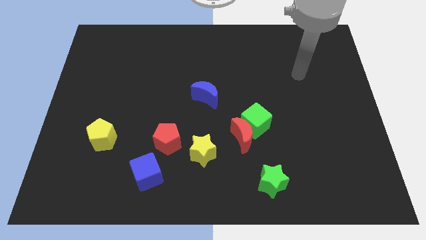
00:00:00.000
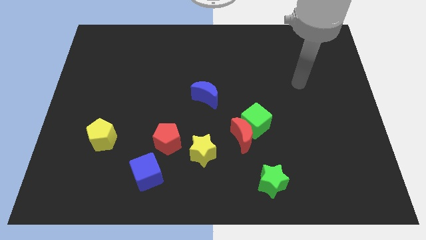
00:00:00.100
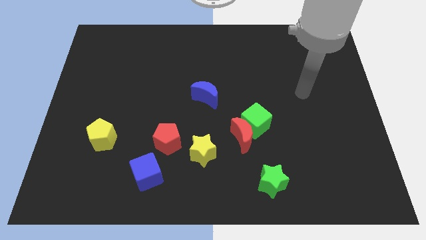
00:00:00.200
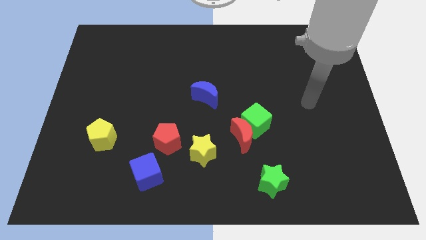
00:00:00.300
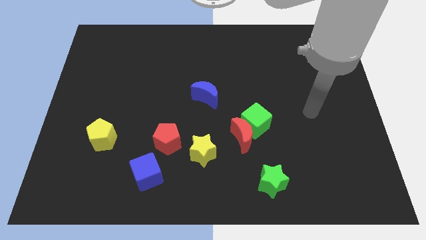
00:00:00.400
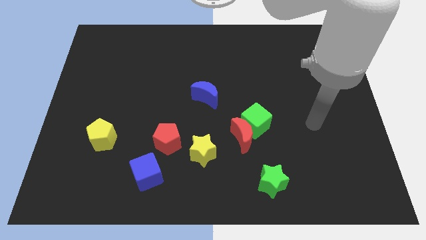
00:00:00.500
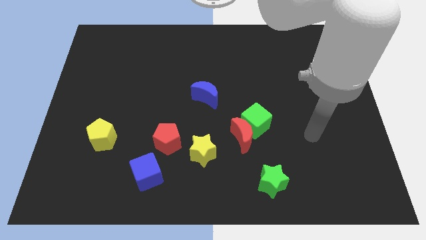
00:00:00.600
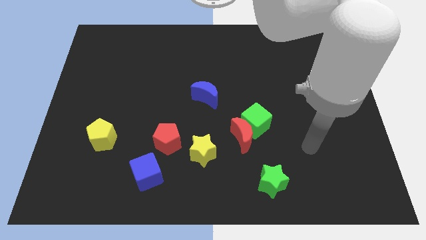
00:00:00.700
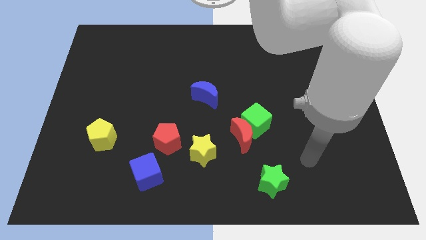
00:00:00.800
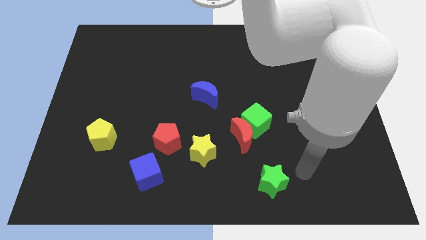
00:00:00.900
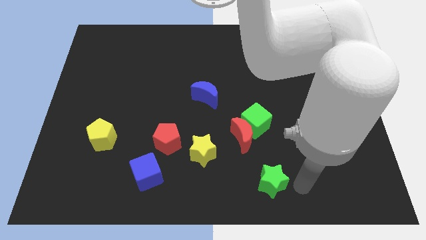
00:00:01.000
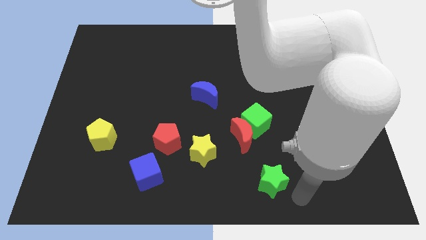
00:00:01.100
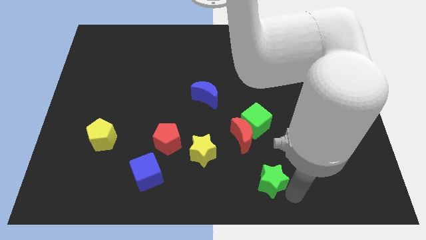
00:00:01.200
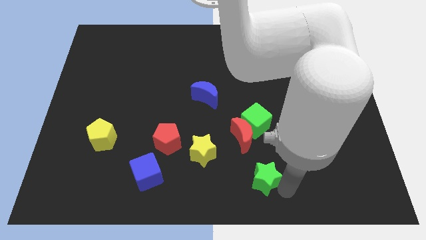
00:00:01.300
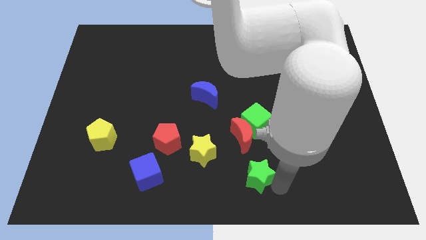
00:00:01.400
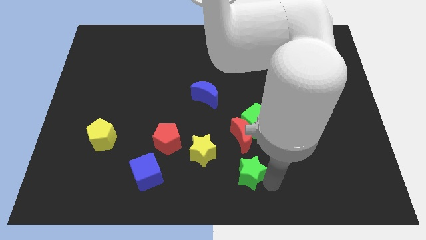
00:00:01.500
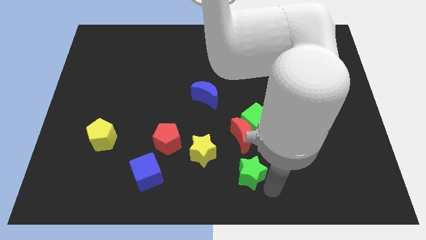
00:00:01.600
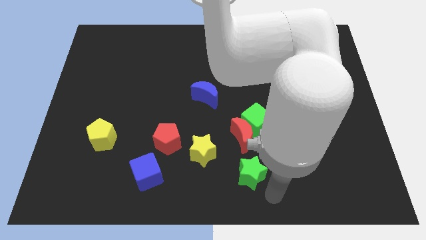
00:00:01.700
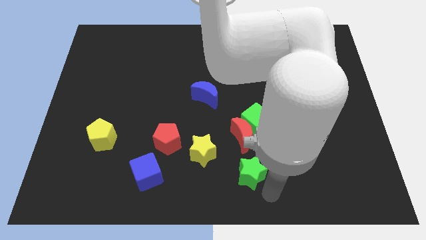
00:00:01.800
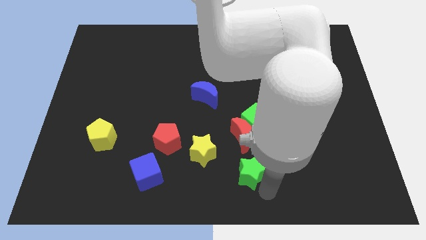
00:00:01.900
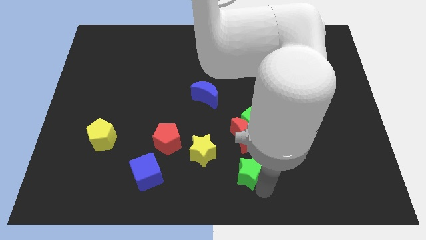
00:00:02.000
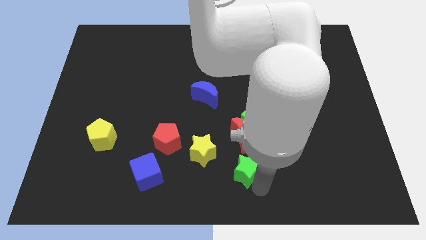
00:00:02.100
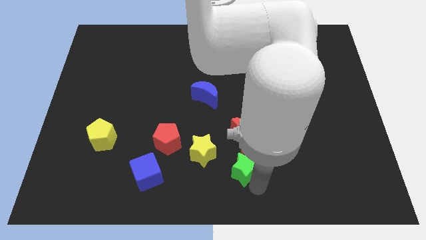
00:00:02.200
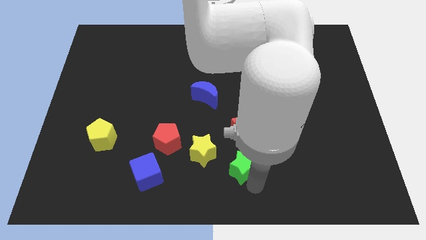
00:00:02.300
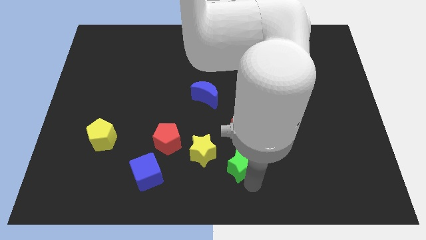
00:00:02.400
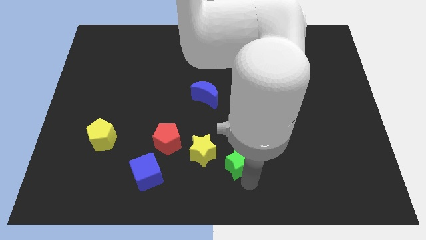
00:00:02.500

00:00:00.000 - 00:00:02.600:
slightly slide the green star upwards and left

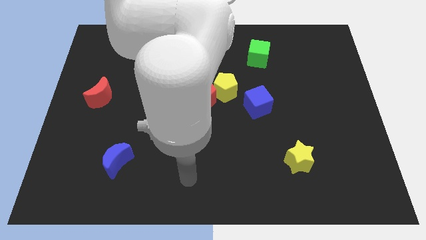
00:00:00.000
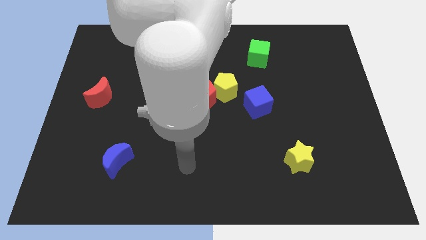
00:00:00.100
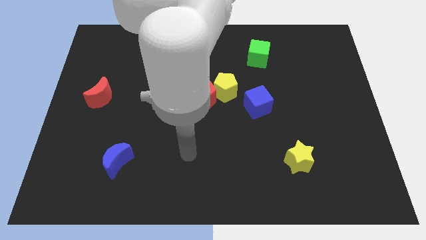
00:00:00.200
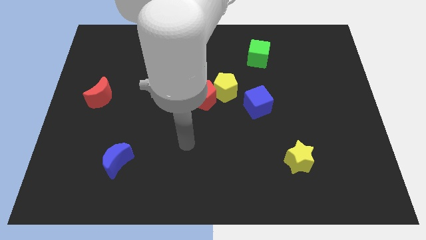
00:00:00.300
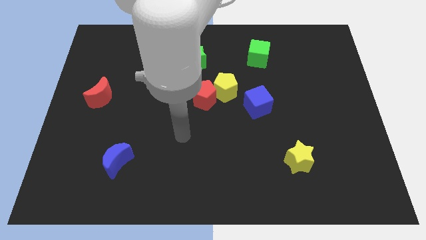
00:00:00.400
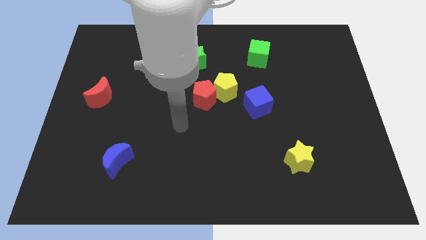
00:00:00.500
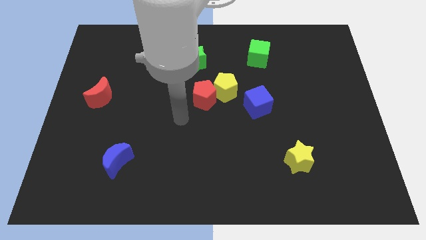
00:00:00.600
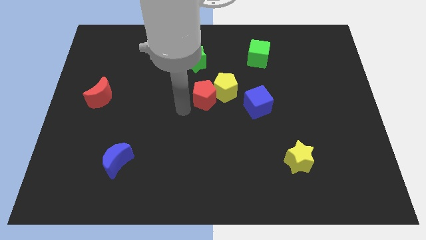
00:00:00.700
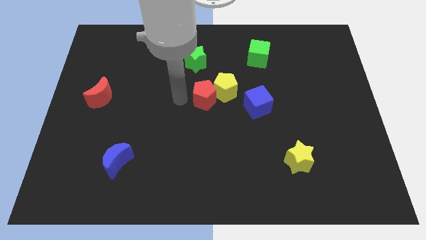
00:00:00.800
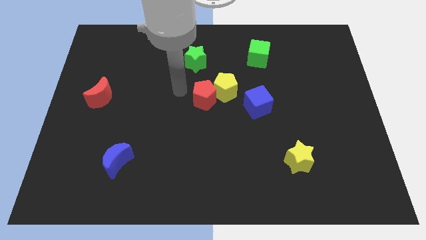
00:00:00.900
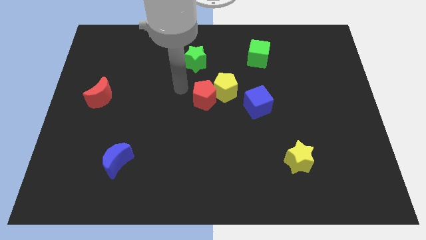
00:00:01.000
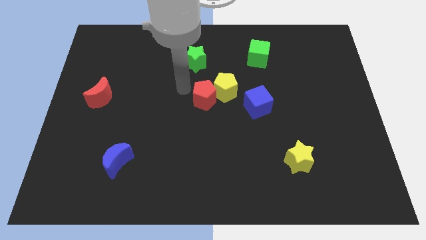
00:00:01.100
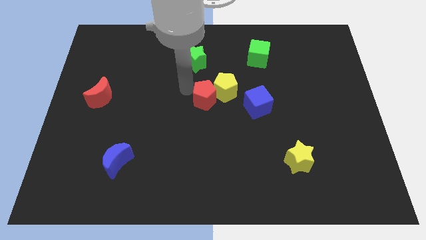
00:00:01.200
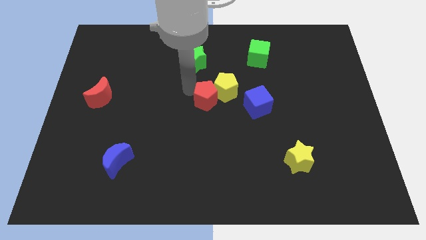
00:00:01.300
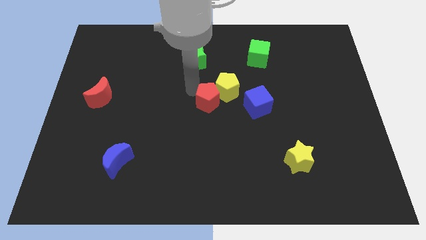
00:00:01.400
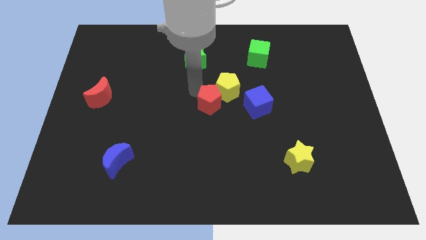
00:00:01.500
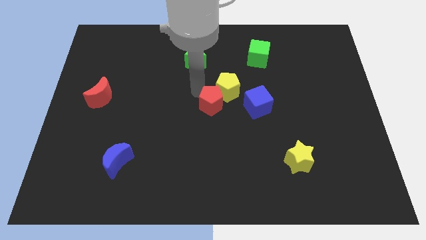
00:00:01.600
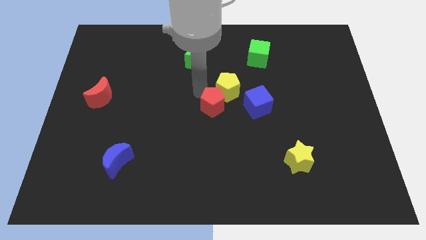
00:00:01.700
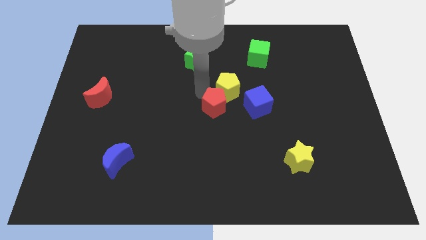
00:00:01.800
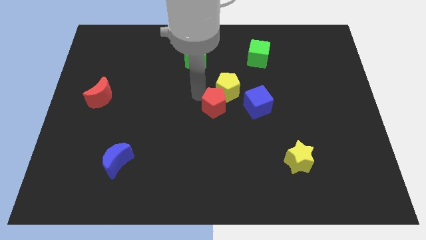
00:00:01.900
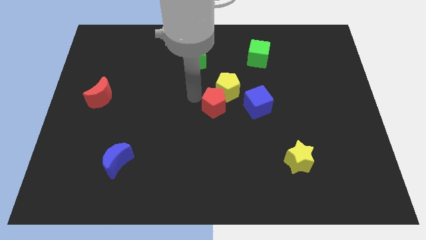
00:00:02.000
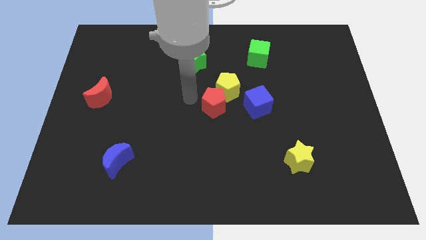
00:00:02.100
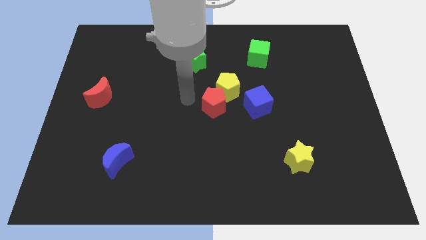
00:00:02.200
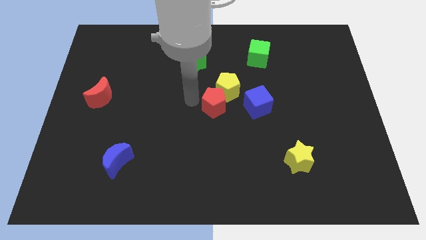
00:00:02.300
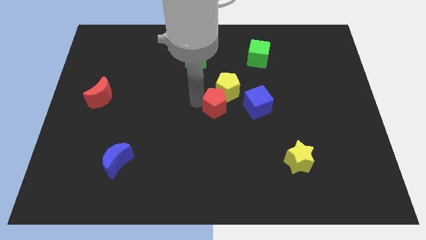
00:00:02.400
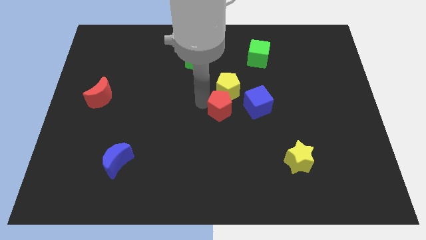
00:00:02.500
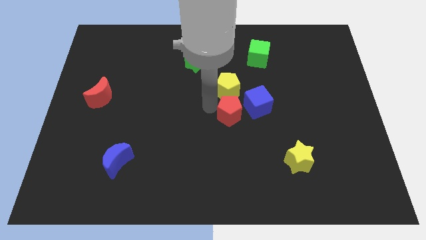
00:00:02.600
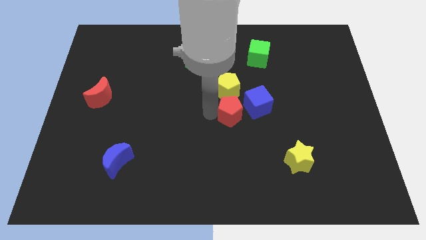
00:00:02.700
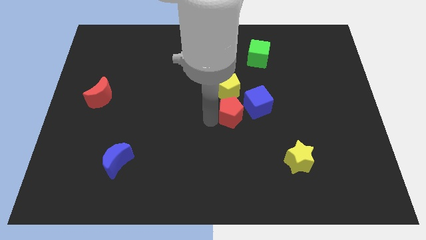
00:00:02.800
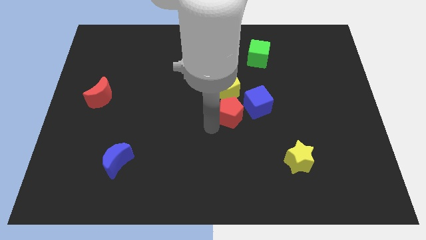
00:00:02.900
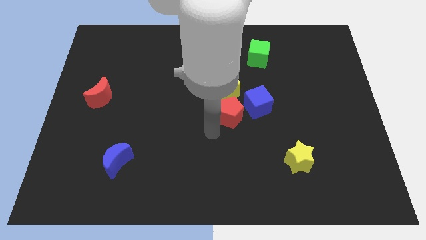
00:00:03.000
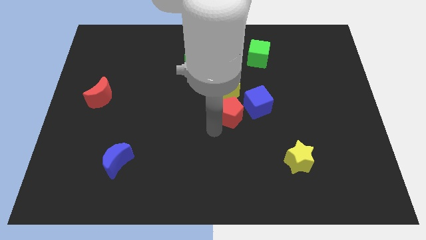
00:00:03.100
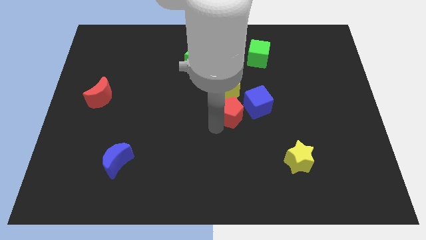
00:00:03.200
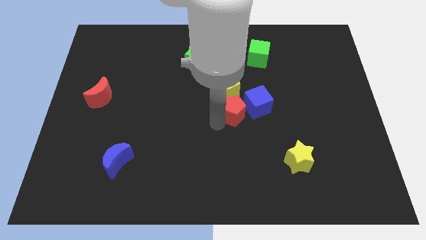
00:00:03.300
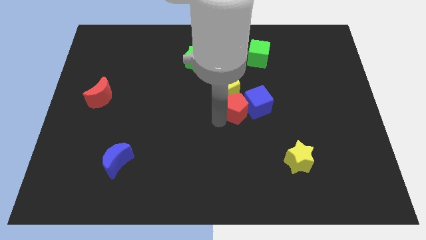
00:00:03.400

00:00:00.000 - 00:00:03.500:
push the red pentagon right slightly

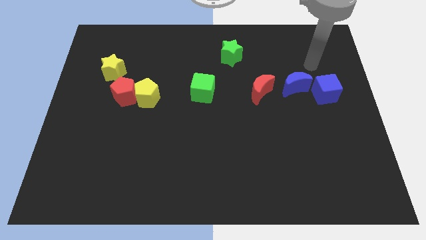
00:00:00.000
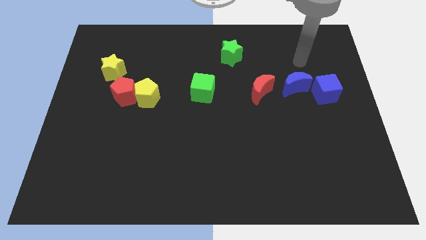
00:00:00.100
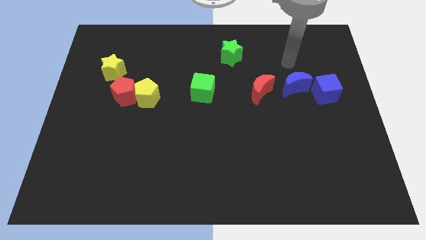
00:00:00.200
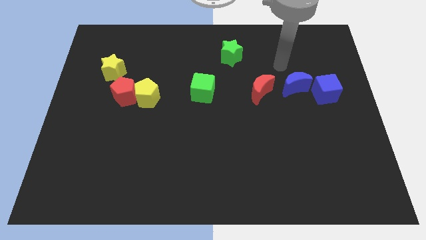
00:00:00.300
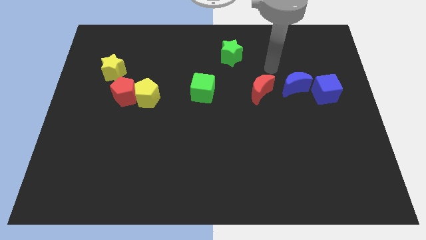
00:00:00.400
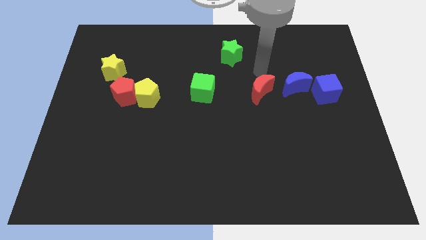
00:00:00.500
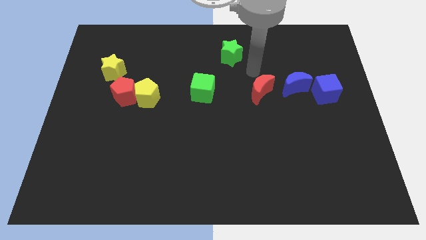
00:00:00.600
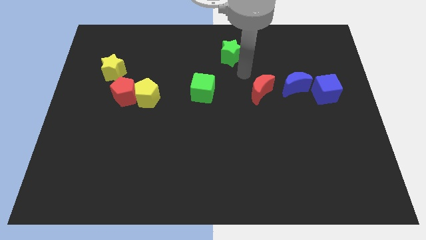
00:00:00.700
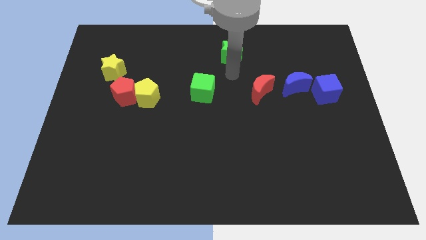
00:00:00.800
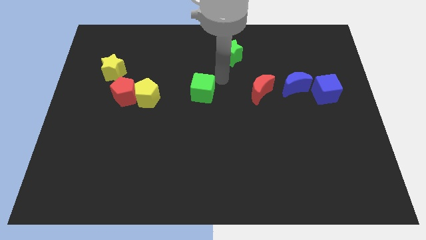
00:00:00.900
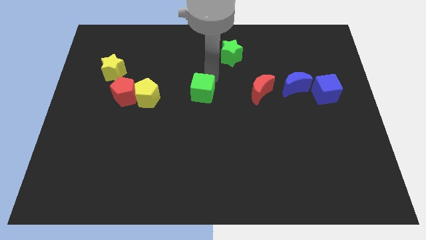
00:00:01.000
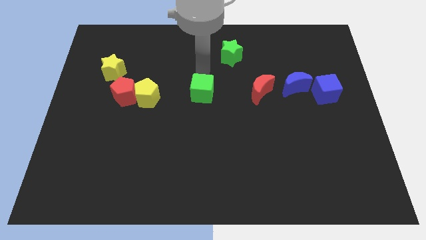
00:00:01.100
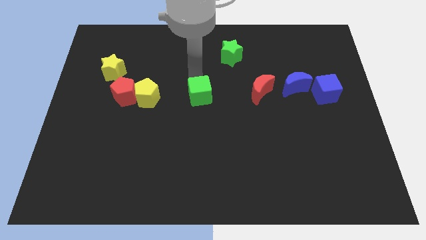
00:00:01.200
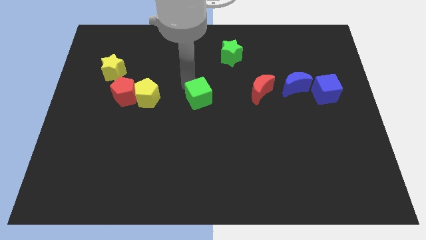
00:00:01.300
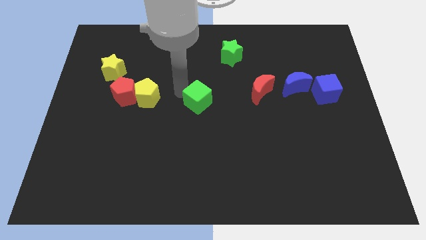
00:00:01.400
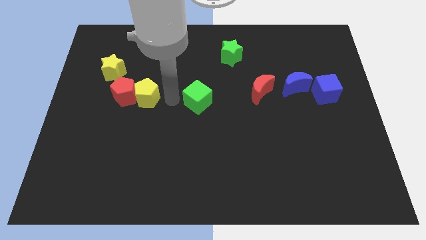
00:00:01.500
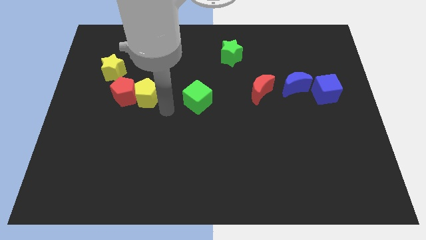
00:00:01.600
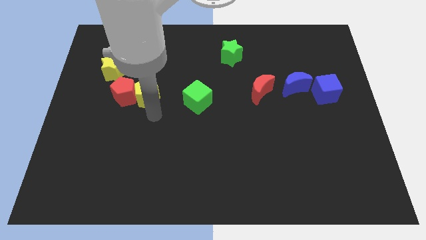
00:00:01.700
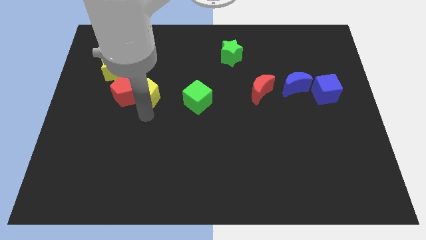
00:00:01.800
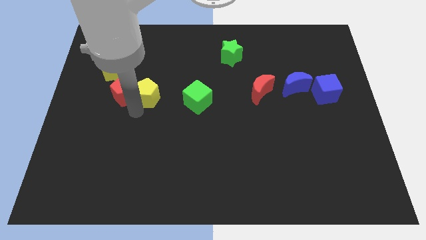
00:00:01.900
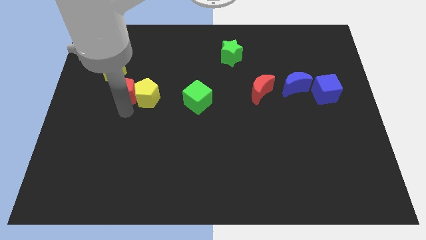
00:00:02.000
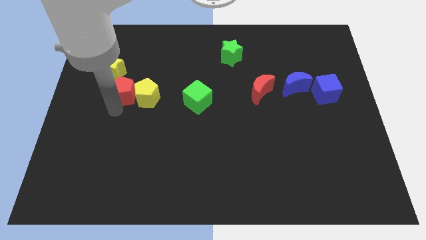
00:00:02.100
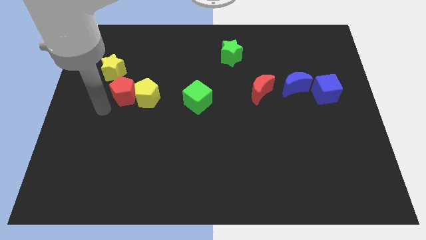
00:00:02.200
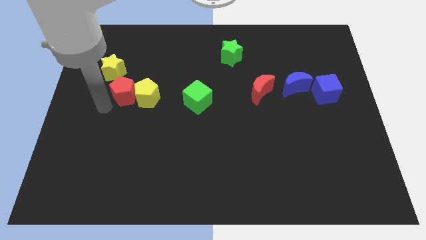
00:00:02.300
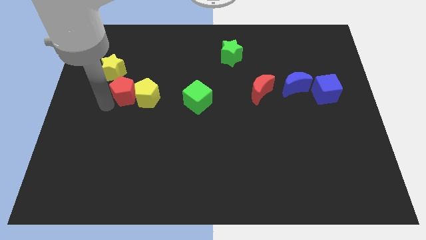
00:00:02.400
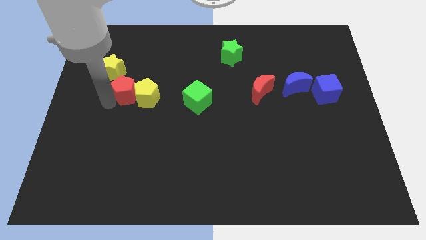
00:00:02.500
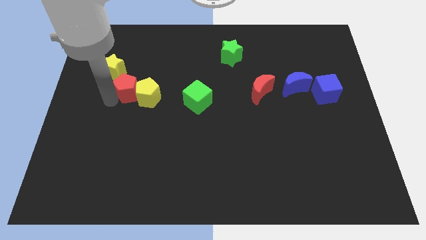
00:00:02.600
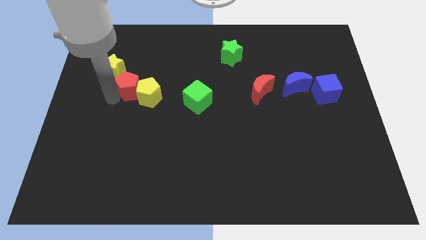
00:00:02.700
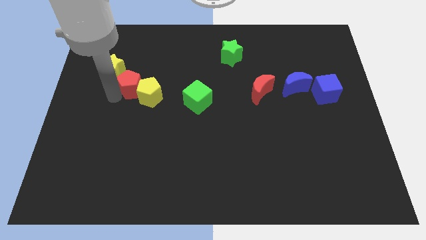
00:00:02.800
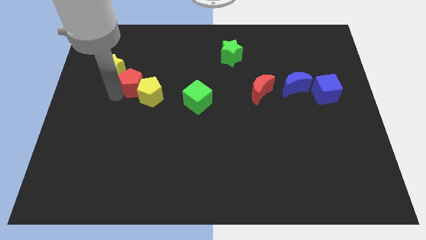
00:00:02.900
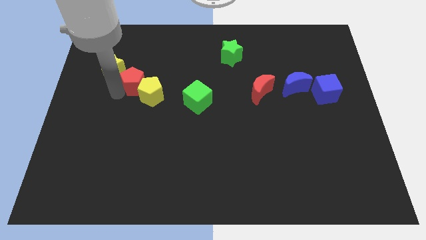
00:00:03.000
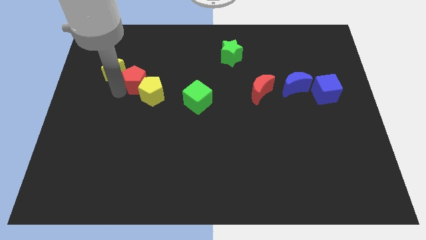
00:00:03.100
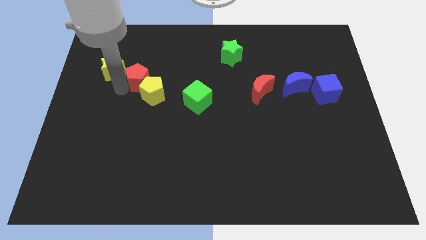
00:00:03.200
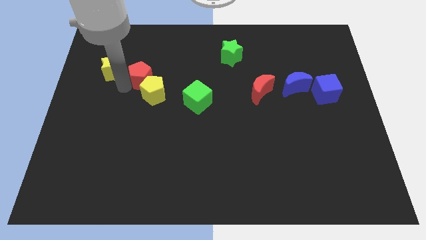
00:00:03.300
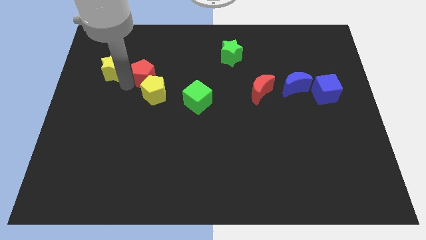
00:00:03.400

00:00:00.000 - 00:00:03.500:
slightly slide the red pentagon upwards and then to the right
